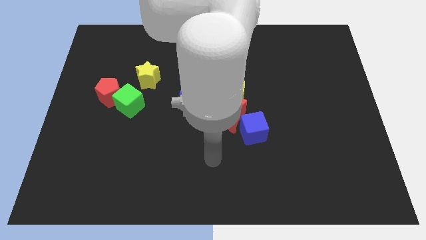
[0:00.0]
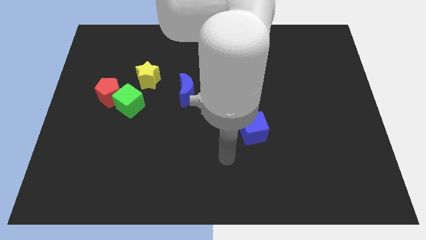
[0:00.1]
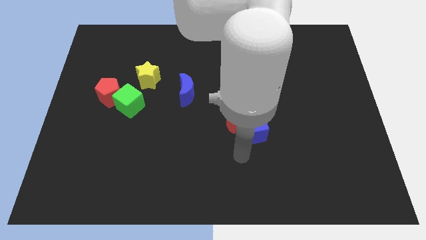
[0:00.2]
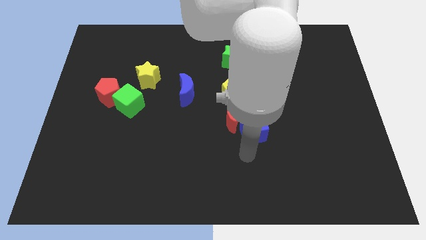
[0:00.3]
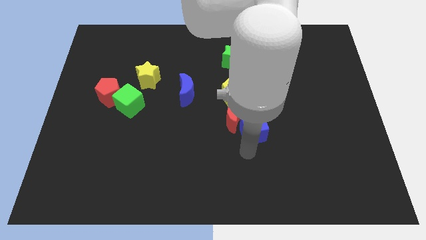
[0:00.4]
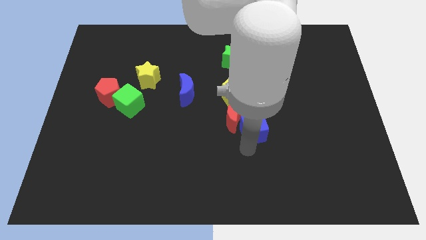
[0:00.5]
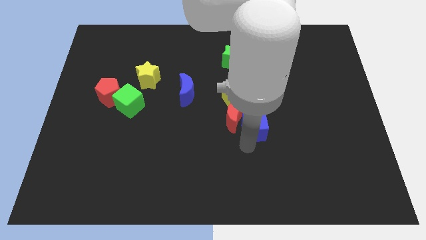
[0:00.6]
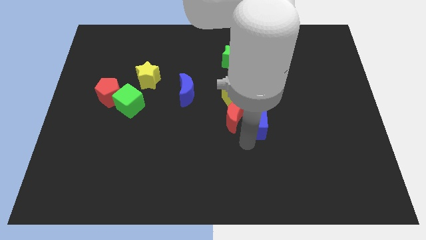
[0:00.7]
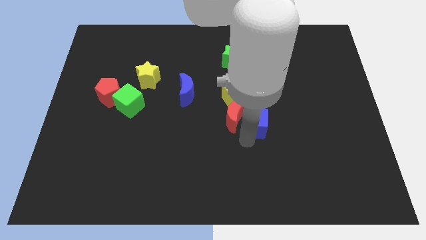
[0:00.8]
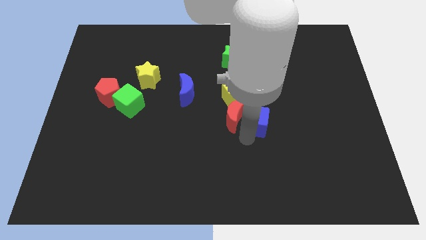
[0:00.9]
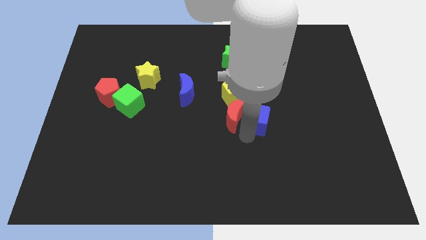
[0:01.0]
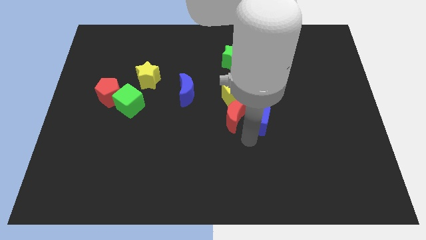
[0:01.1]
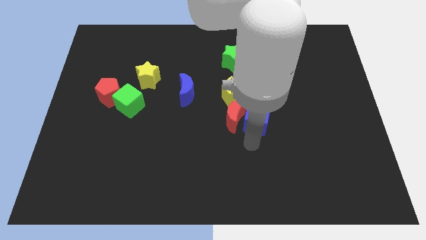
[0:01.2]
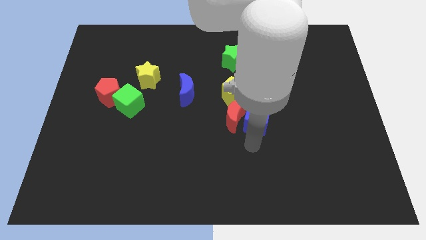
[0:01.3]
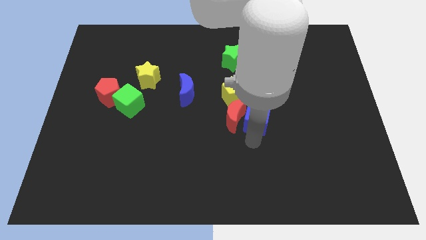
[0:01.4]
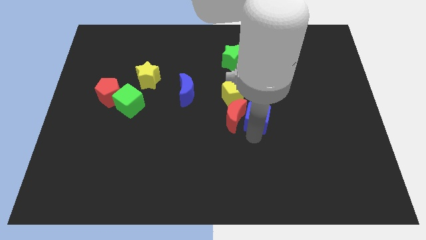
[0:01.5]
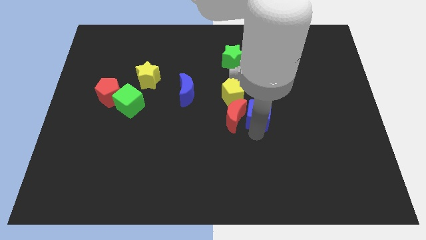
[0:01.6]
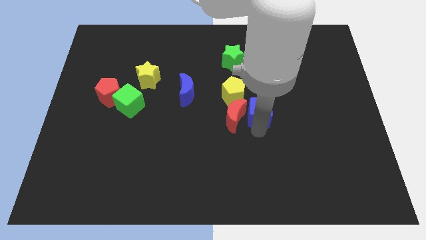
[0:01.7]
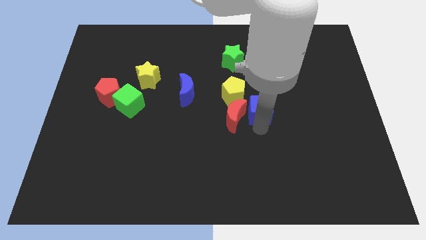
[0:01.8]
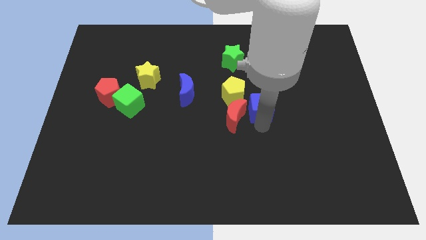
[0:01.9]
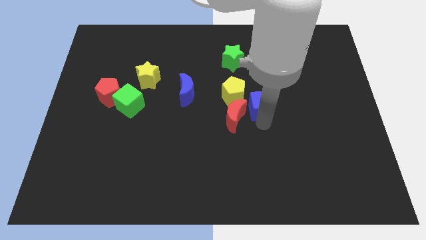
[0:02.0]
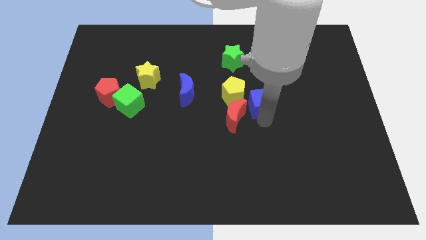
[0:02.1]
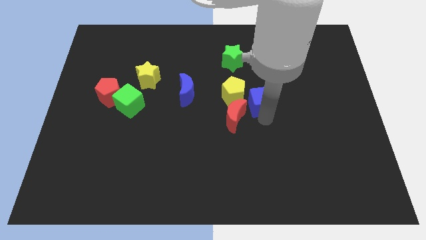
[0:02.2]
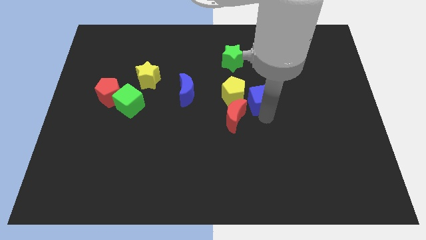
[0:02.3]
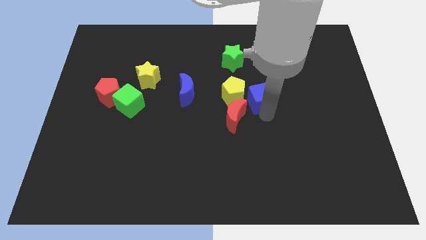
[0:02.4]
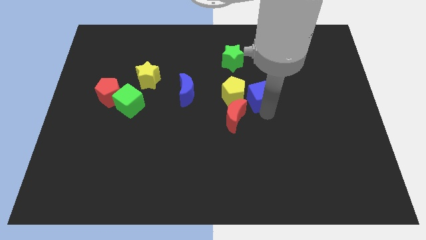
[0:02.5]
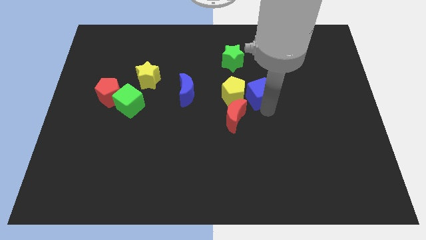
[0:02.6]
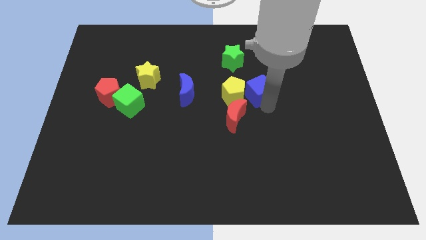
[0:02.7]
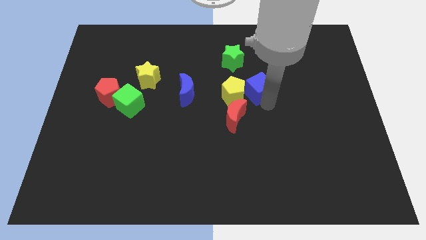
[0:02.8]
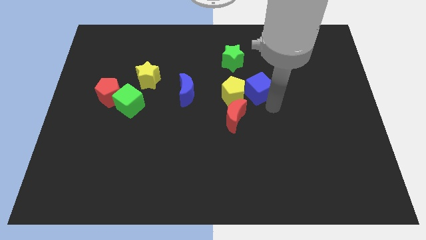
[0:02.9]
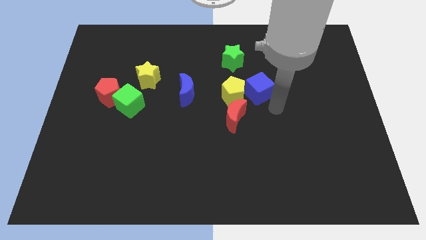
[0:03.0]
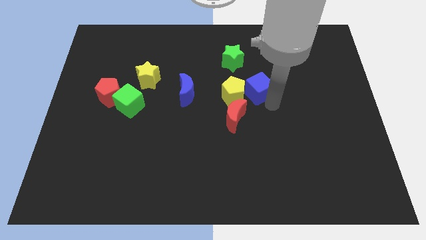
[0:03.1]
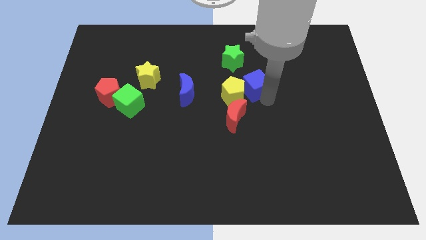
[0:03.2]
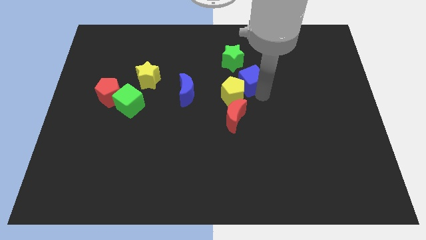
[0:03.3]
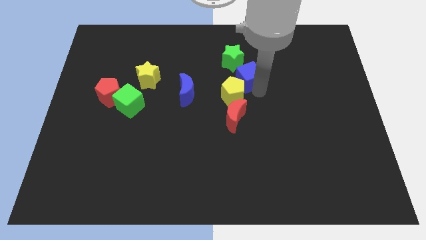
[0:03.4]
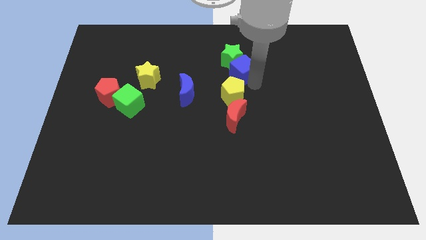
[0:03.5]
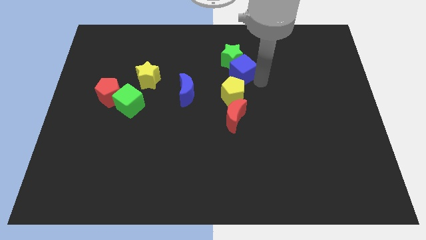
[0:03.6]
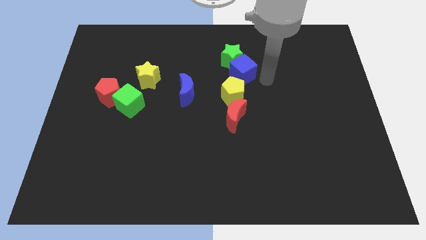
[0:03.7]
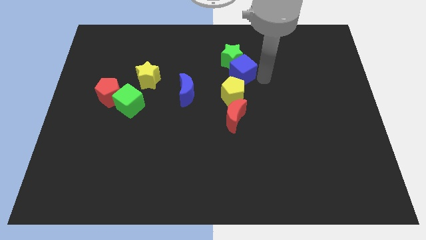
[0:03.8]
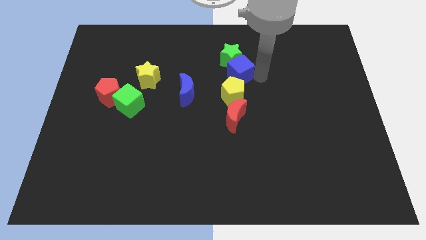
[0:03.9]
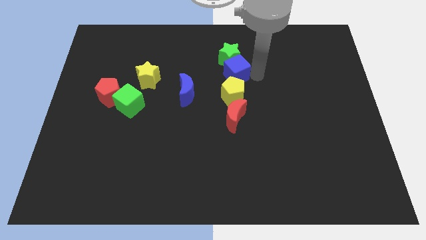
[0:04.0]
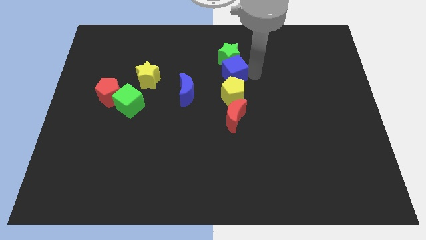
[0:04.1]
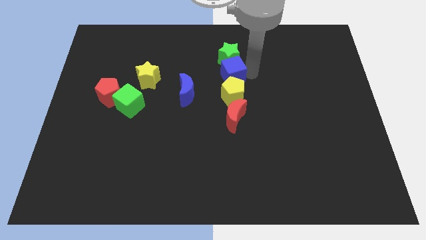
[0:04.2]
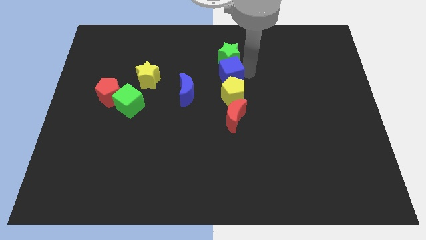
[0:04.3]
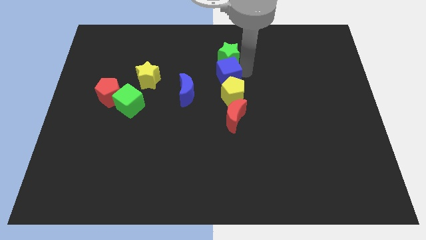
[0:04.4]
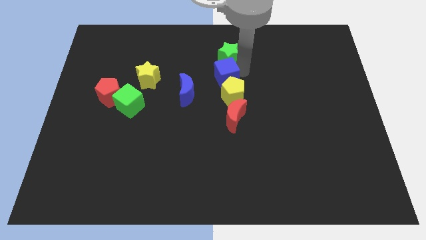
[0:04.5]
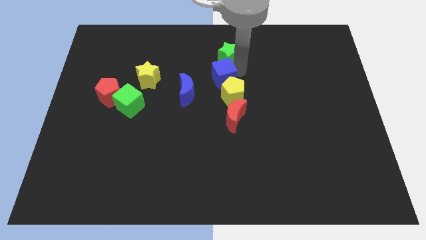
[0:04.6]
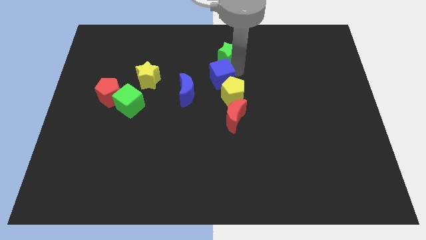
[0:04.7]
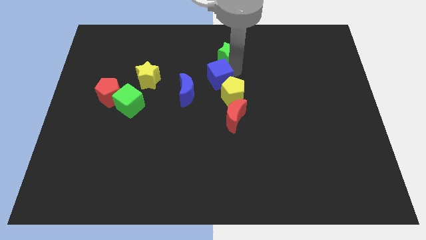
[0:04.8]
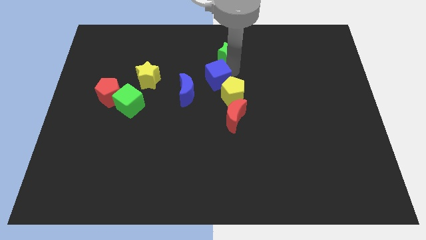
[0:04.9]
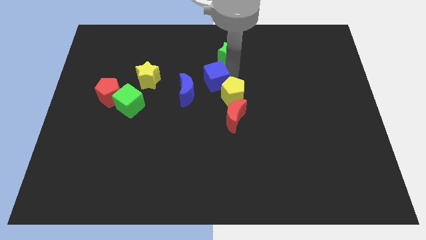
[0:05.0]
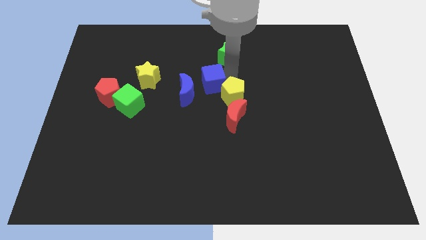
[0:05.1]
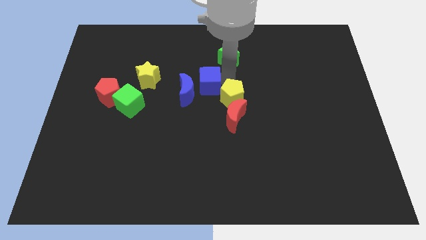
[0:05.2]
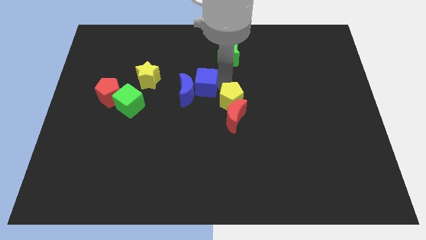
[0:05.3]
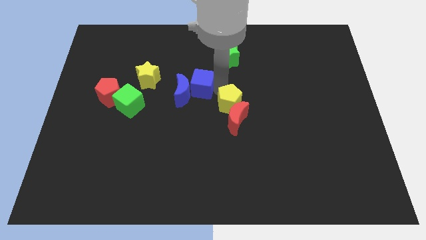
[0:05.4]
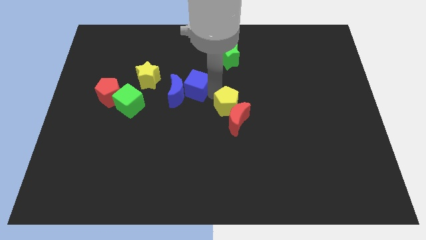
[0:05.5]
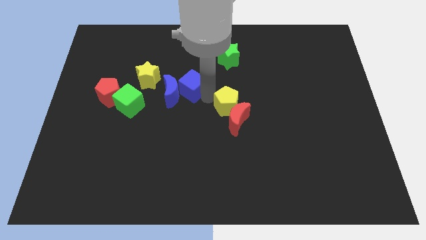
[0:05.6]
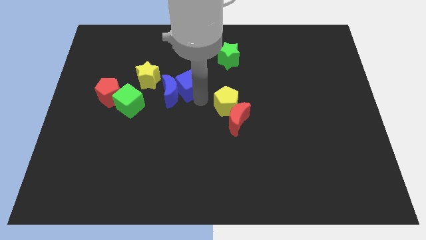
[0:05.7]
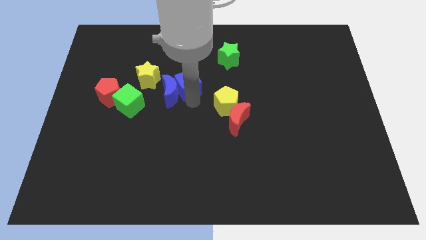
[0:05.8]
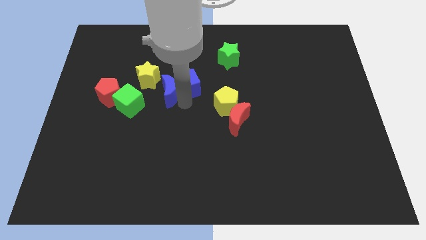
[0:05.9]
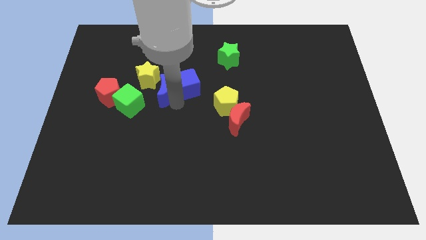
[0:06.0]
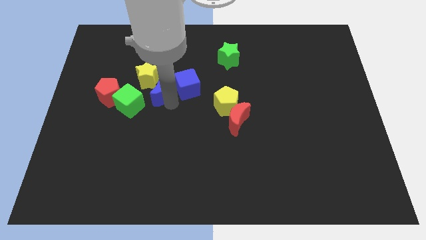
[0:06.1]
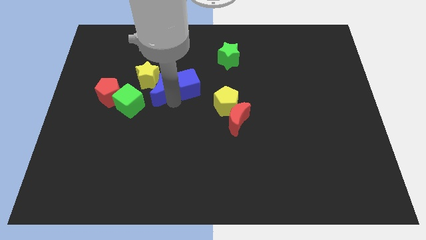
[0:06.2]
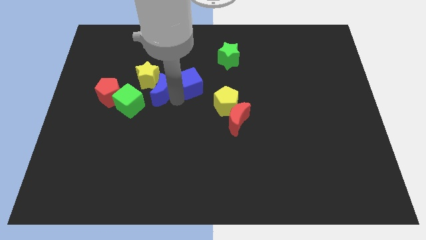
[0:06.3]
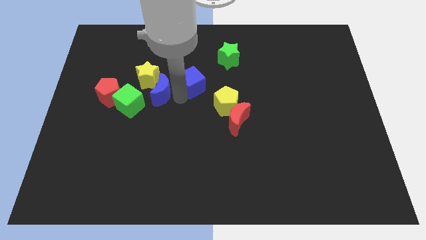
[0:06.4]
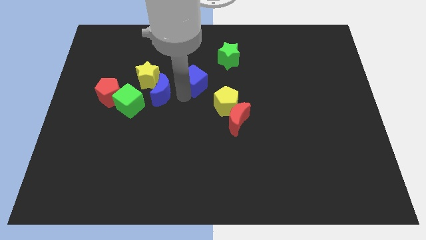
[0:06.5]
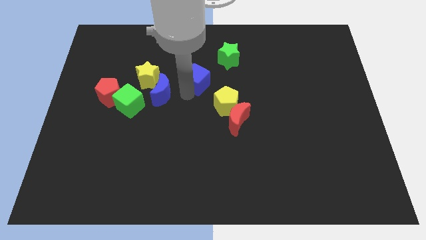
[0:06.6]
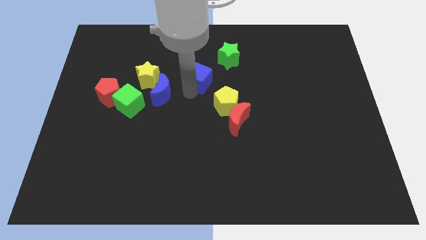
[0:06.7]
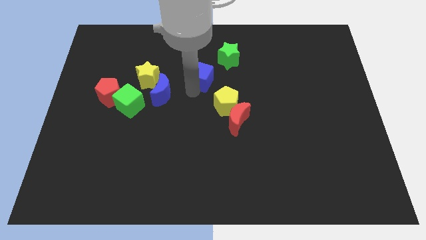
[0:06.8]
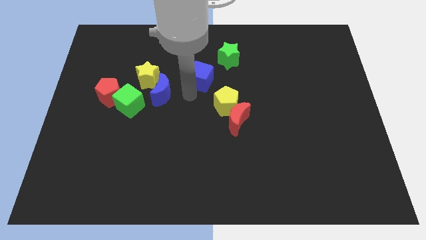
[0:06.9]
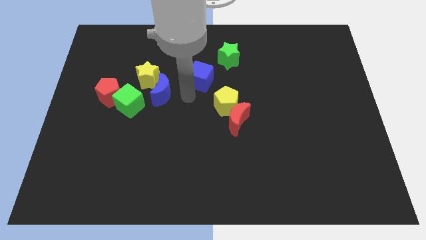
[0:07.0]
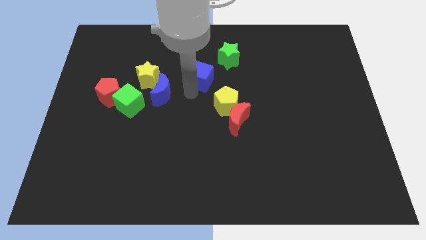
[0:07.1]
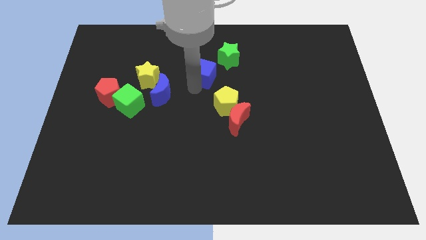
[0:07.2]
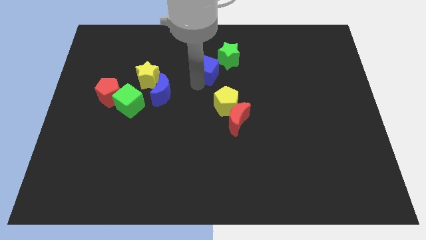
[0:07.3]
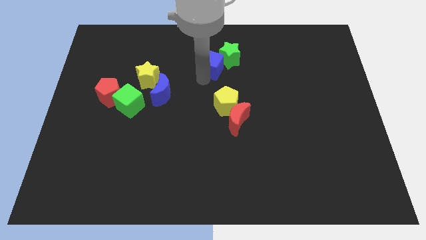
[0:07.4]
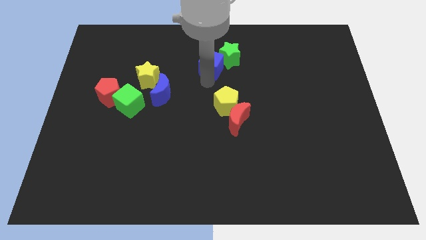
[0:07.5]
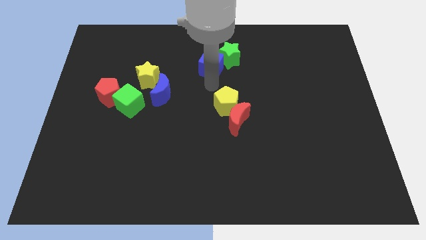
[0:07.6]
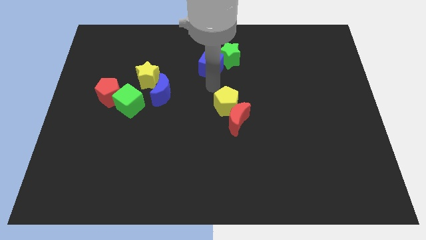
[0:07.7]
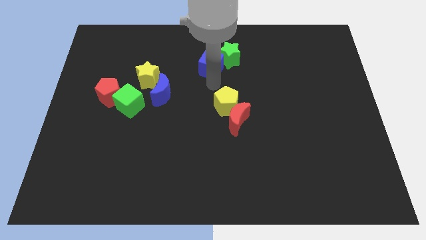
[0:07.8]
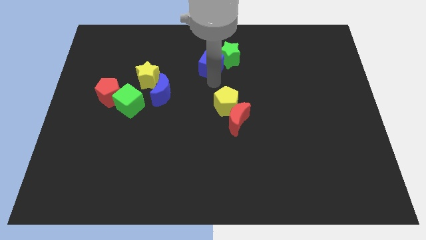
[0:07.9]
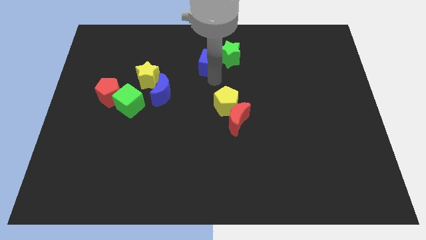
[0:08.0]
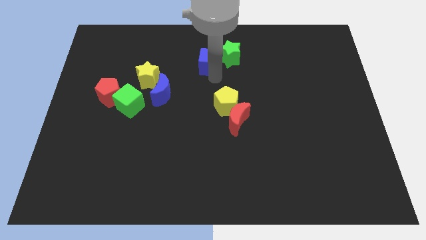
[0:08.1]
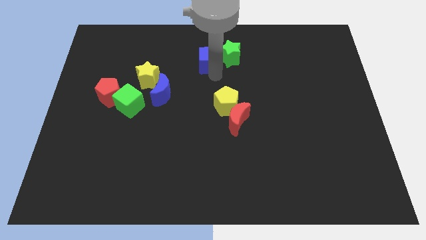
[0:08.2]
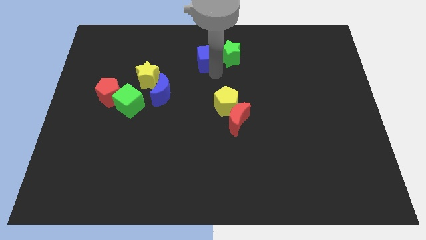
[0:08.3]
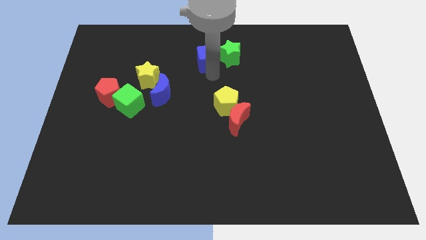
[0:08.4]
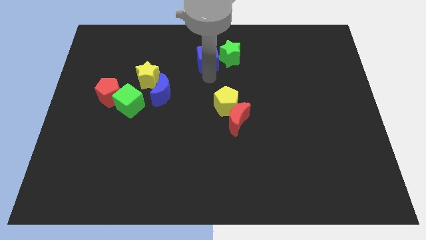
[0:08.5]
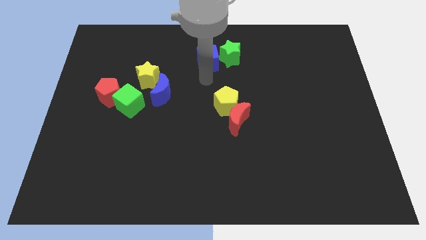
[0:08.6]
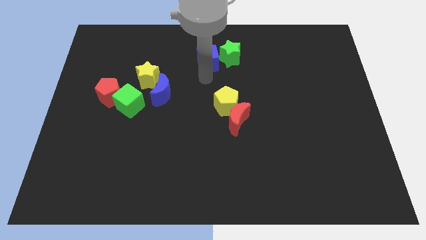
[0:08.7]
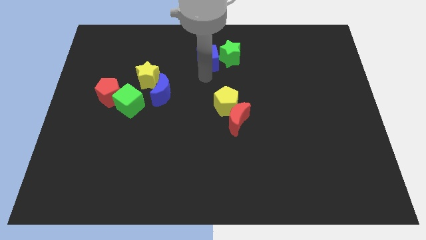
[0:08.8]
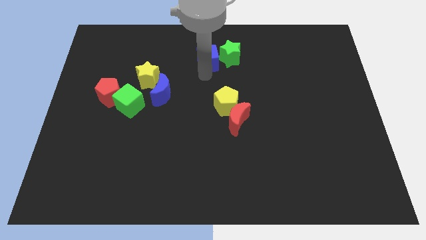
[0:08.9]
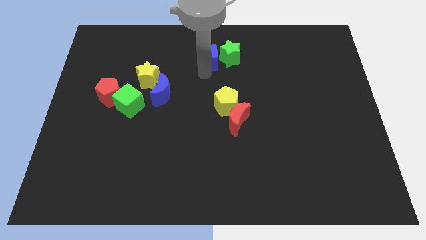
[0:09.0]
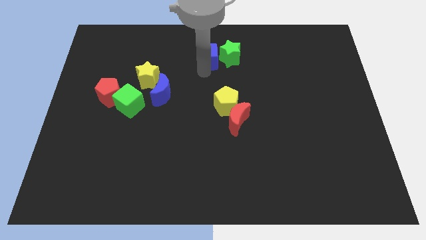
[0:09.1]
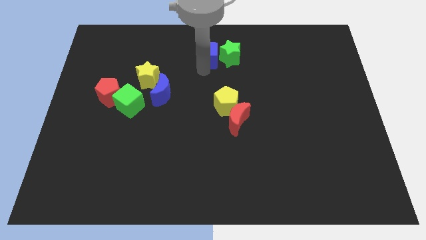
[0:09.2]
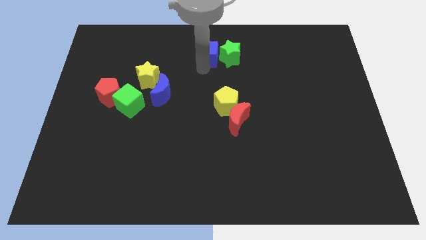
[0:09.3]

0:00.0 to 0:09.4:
move the blue cube to the top side
